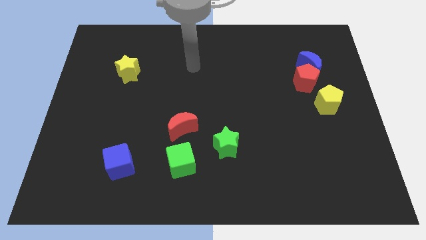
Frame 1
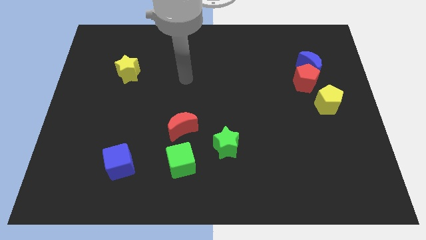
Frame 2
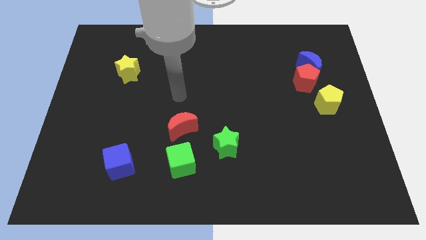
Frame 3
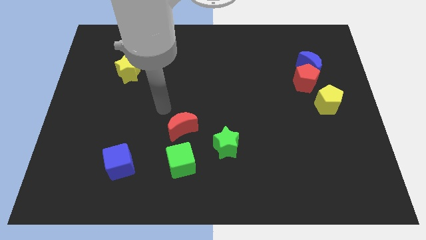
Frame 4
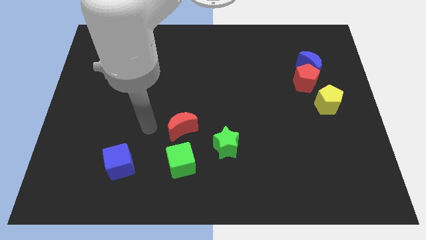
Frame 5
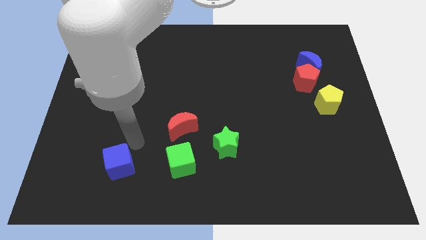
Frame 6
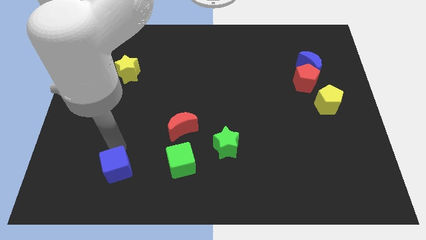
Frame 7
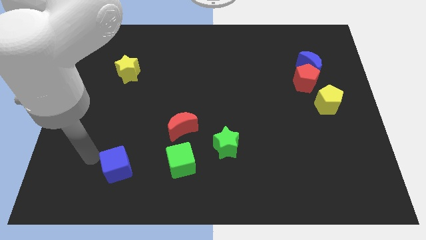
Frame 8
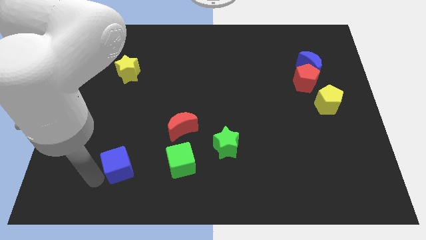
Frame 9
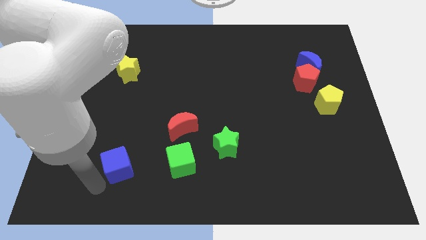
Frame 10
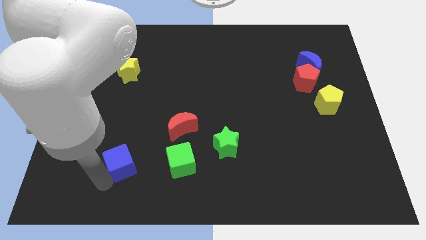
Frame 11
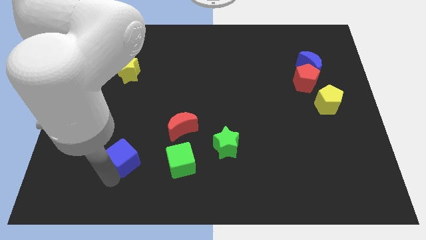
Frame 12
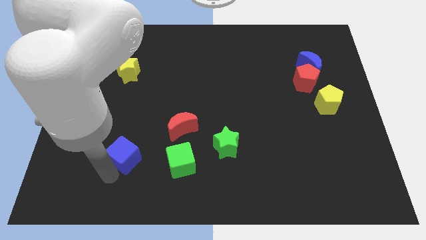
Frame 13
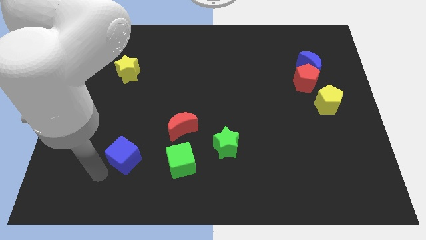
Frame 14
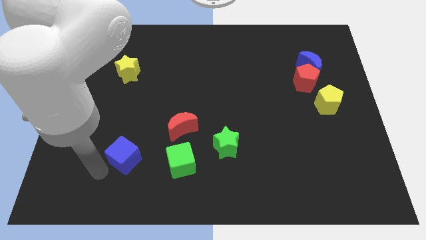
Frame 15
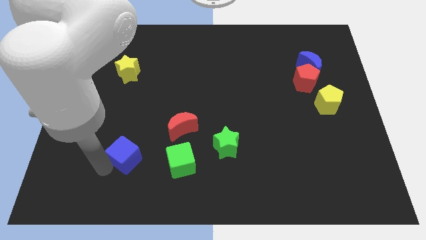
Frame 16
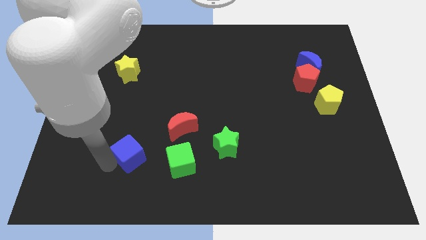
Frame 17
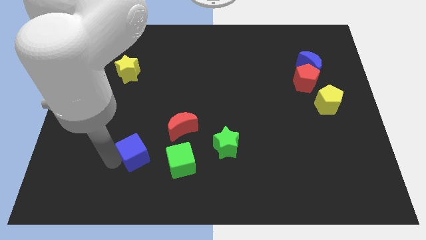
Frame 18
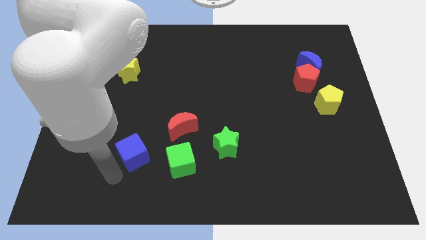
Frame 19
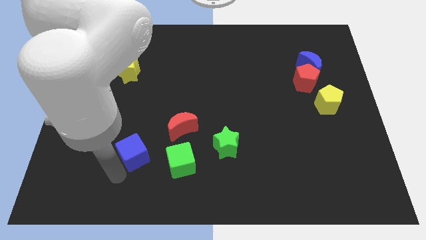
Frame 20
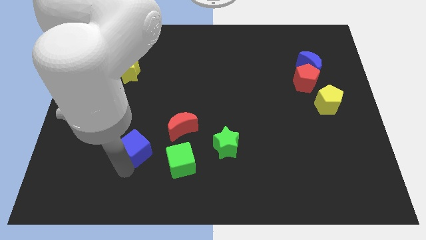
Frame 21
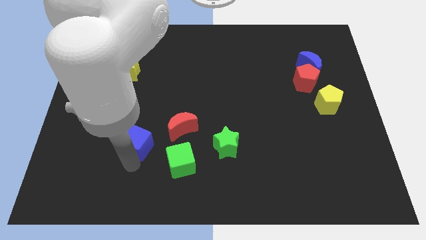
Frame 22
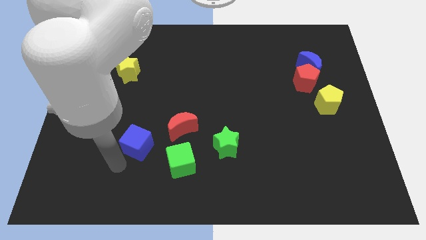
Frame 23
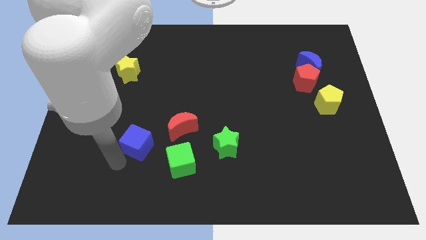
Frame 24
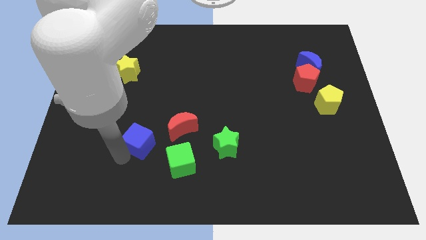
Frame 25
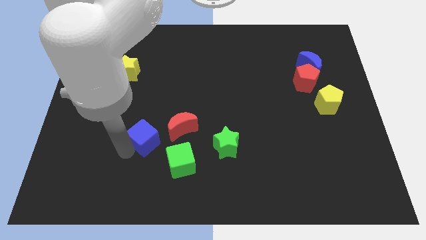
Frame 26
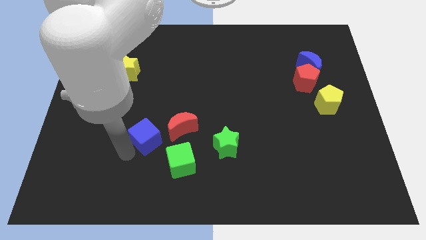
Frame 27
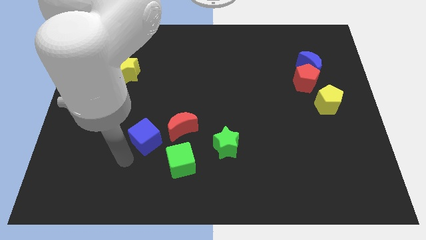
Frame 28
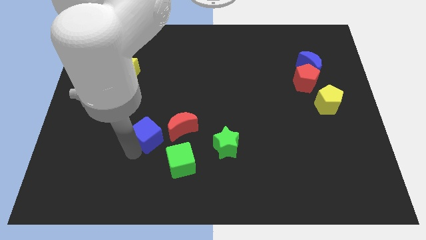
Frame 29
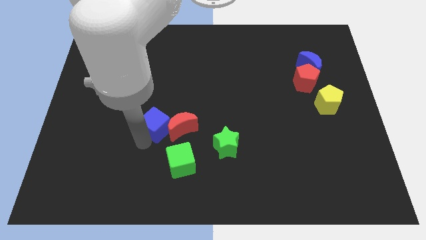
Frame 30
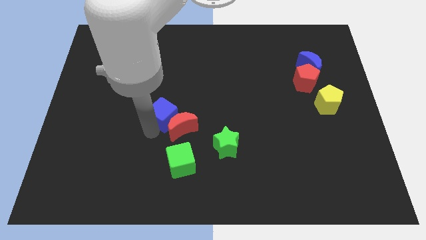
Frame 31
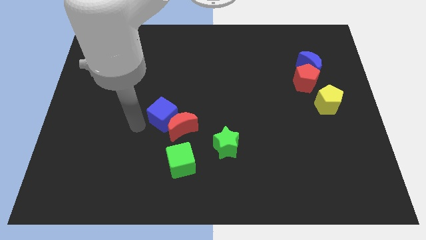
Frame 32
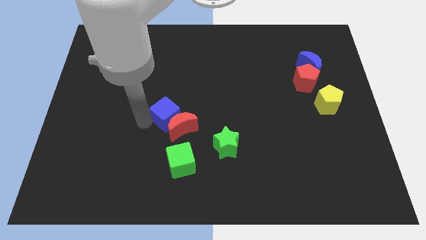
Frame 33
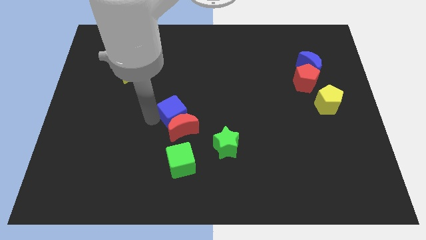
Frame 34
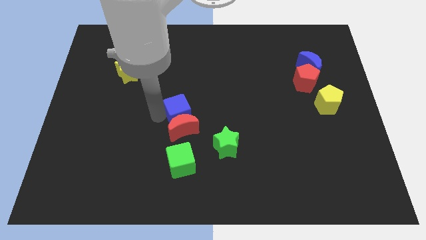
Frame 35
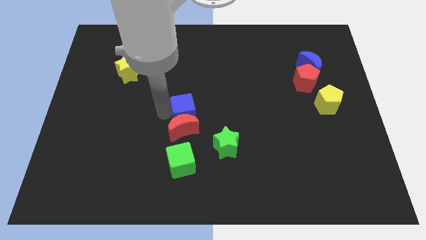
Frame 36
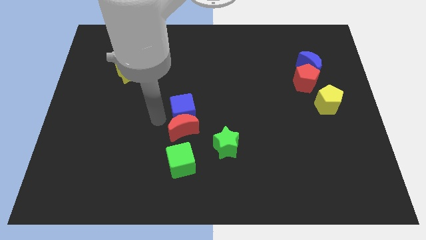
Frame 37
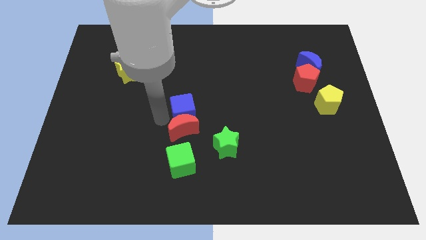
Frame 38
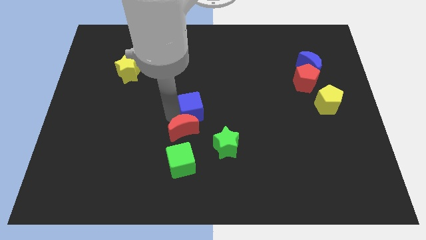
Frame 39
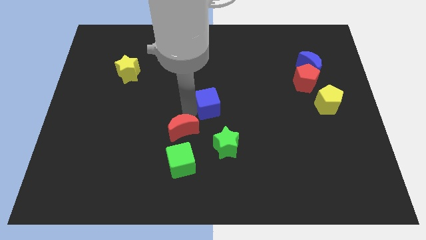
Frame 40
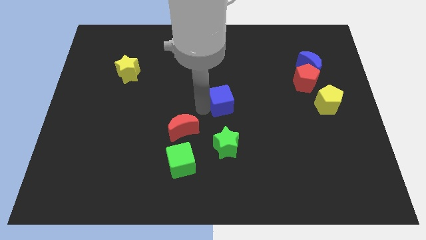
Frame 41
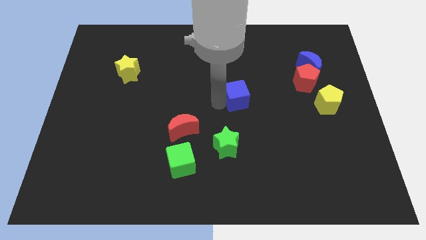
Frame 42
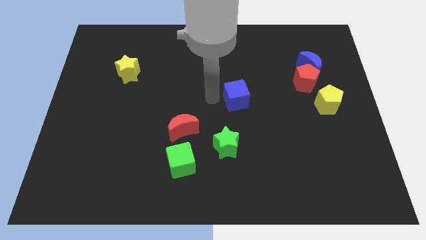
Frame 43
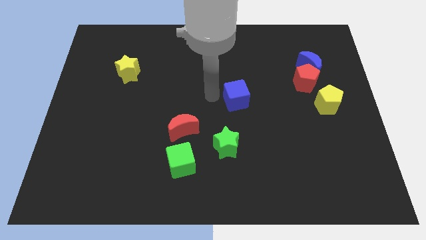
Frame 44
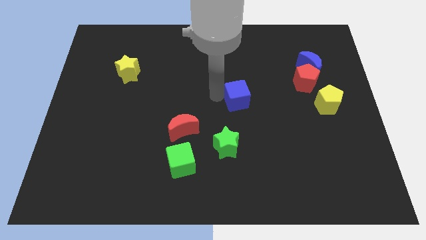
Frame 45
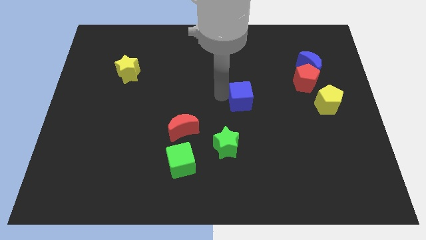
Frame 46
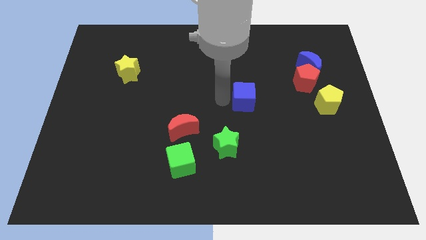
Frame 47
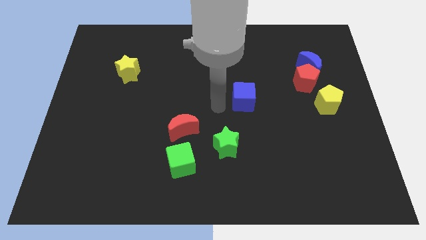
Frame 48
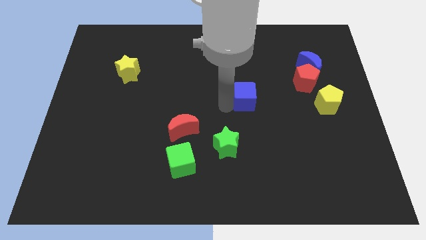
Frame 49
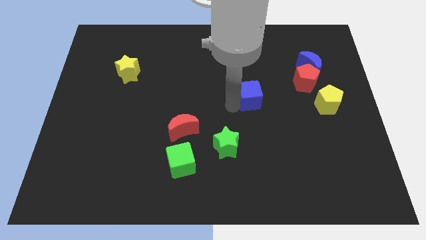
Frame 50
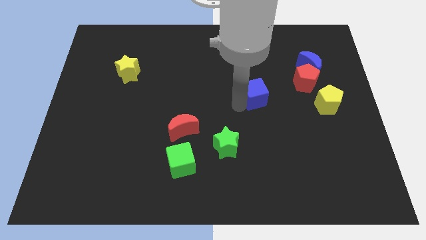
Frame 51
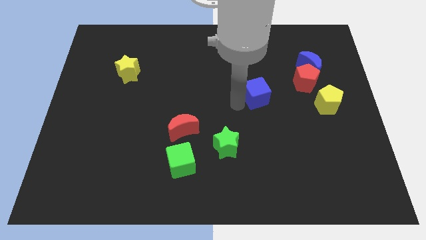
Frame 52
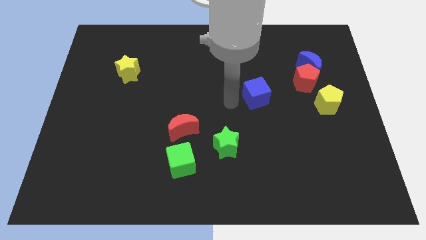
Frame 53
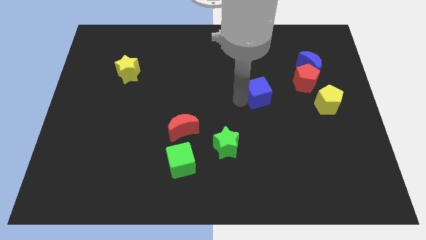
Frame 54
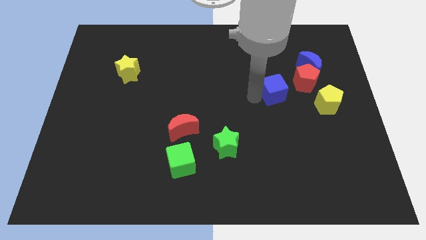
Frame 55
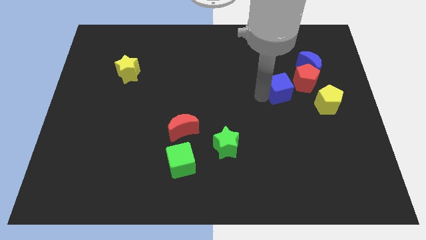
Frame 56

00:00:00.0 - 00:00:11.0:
slide the blue cube diagonally down and to the left of the blue moon

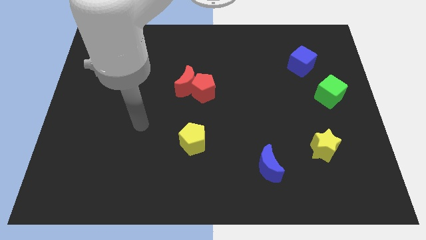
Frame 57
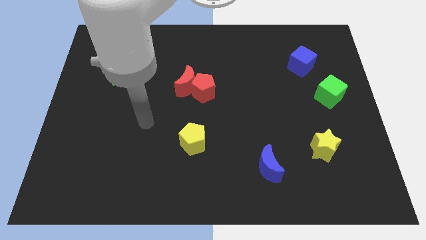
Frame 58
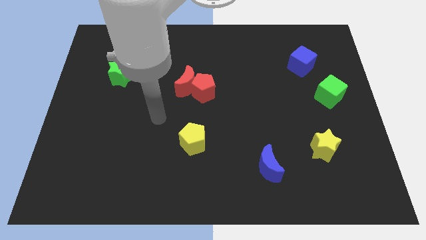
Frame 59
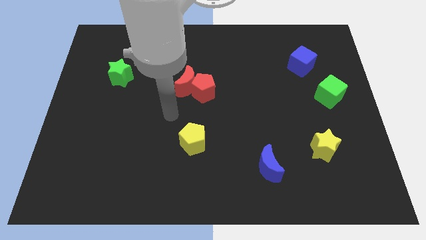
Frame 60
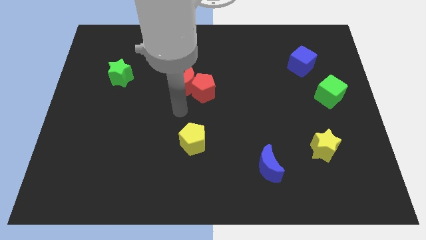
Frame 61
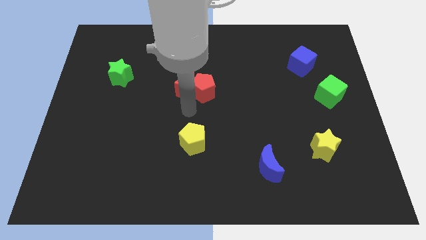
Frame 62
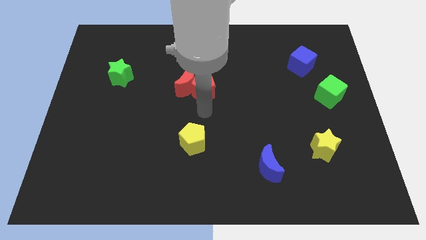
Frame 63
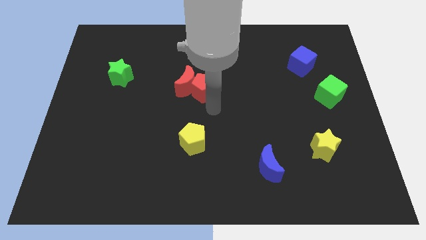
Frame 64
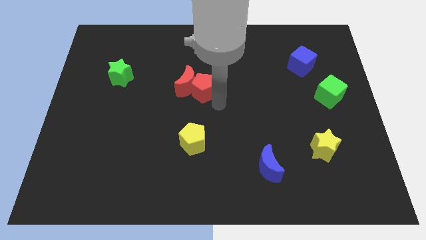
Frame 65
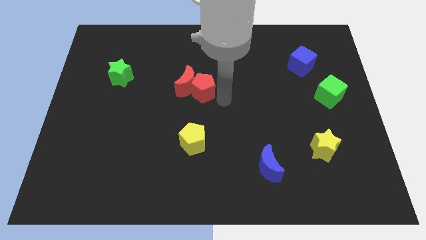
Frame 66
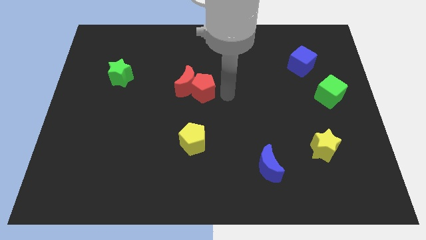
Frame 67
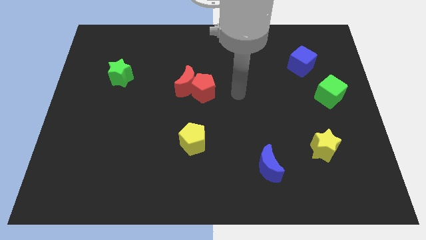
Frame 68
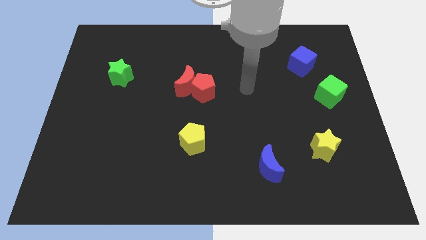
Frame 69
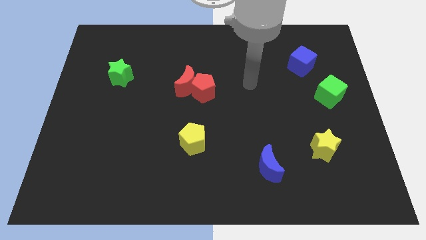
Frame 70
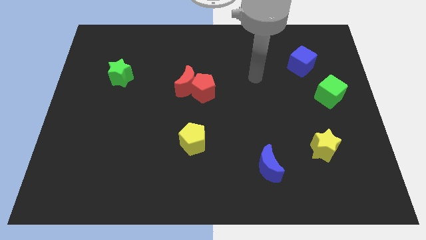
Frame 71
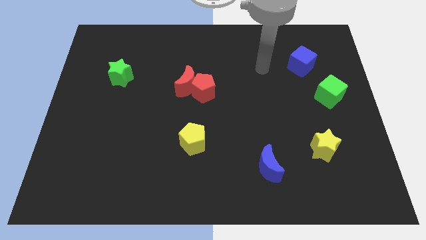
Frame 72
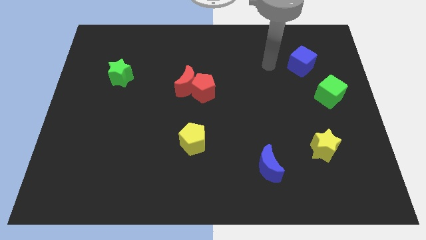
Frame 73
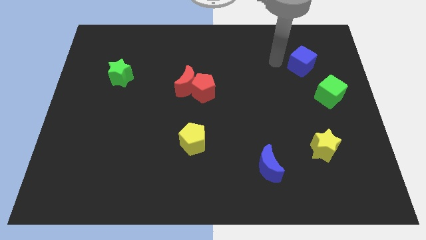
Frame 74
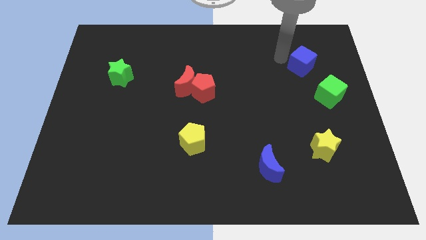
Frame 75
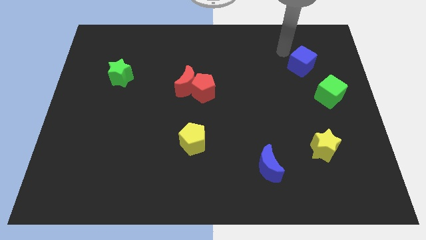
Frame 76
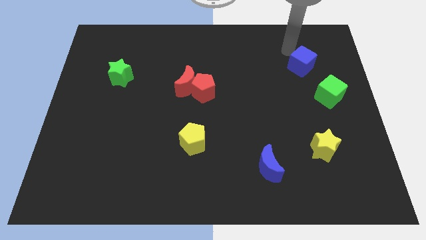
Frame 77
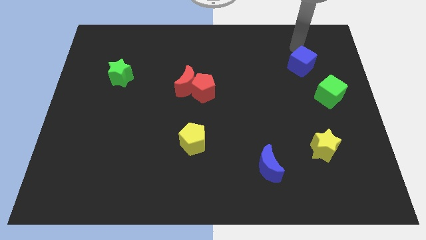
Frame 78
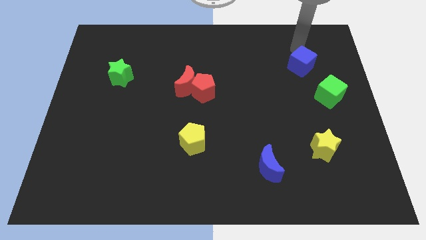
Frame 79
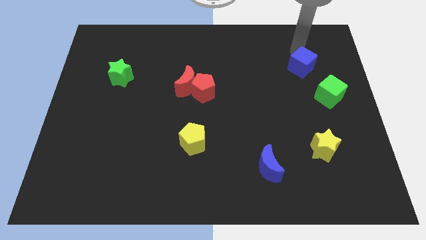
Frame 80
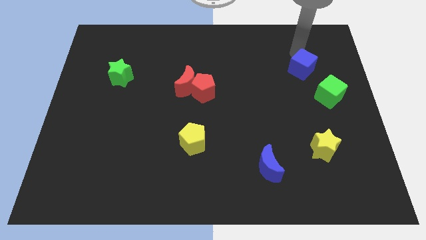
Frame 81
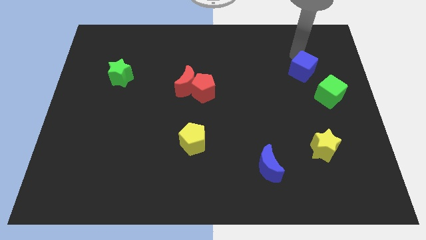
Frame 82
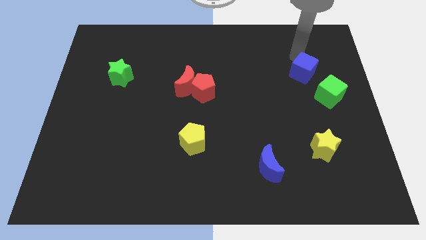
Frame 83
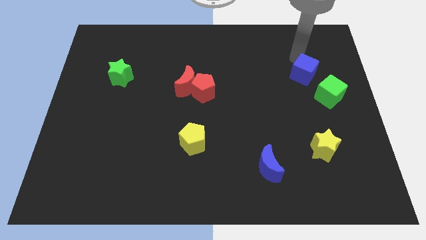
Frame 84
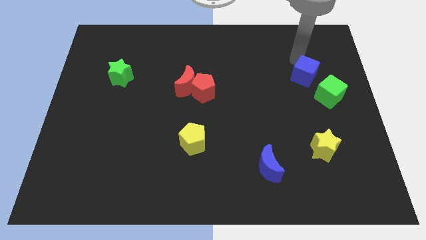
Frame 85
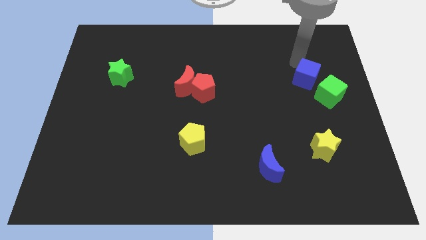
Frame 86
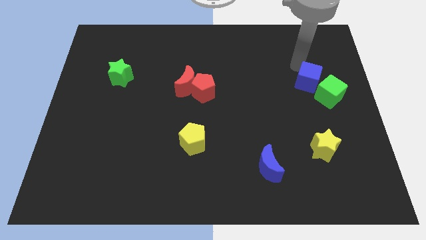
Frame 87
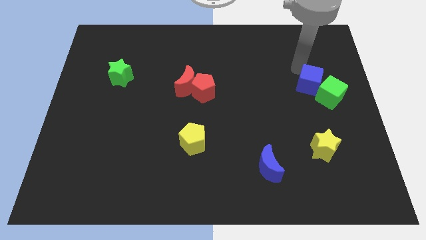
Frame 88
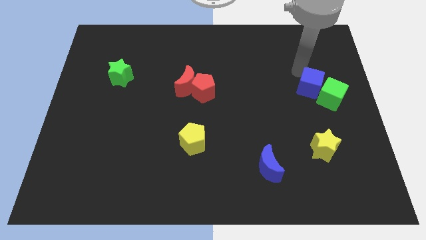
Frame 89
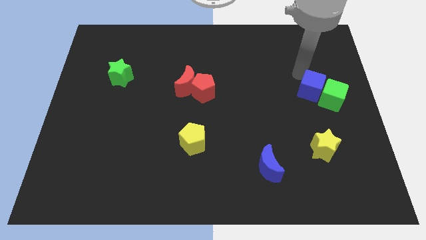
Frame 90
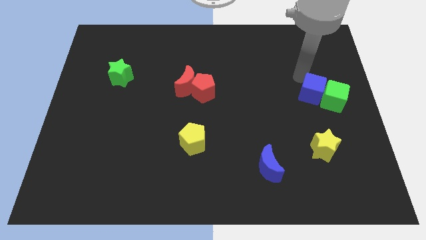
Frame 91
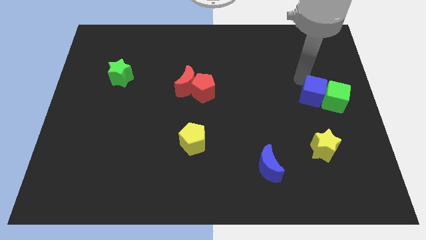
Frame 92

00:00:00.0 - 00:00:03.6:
slide the blue cube to the bottom left side of the green cube
